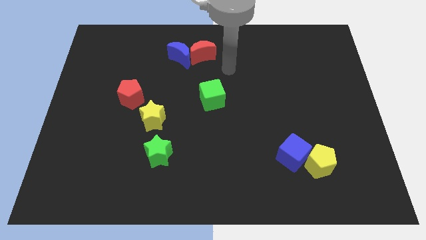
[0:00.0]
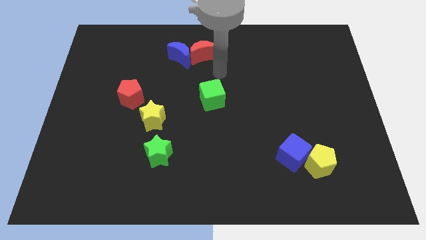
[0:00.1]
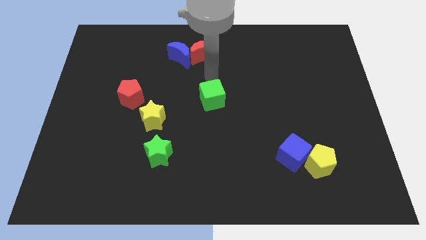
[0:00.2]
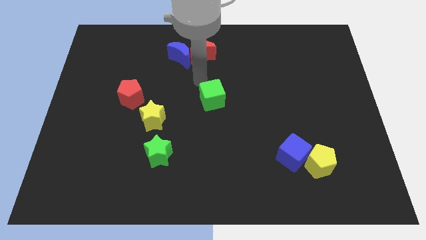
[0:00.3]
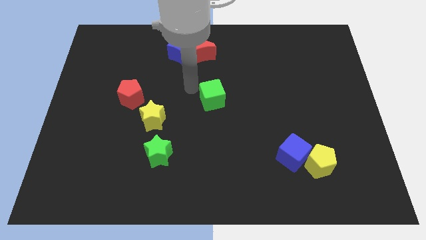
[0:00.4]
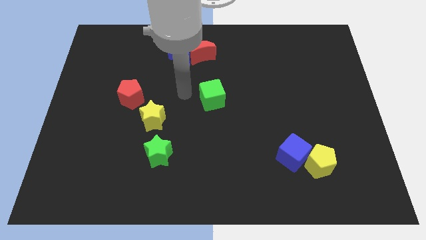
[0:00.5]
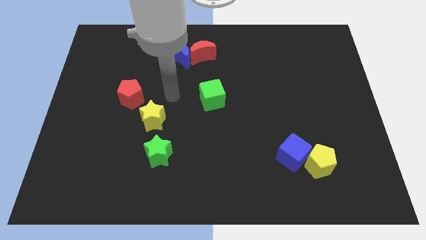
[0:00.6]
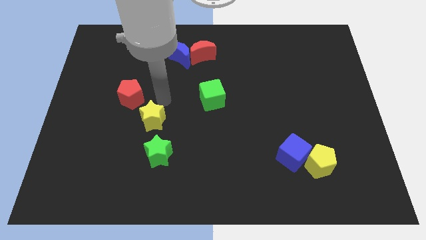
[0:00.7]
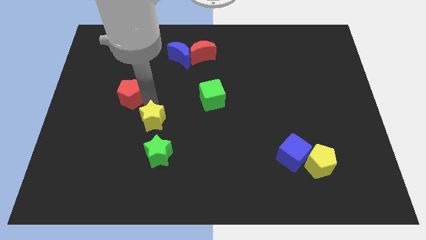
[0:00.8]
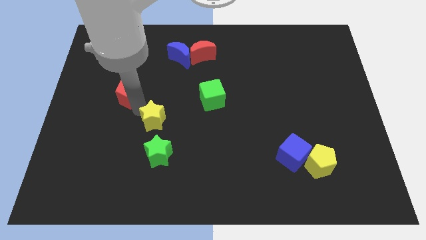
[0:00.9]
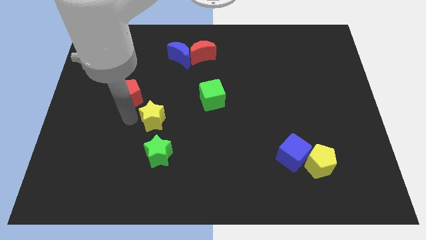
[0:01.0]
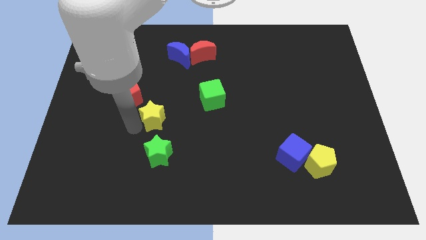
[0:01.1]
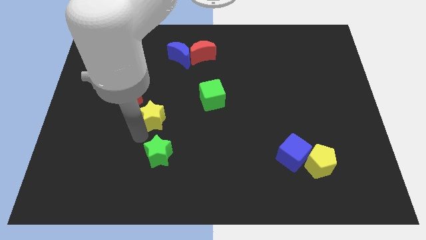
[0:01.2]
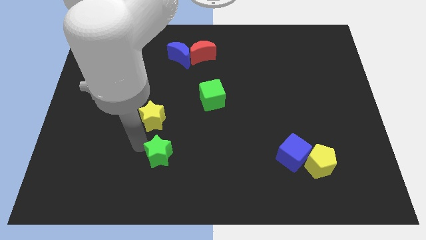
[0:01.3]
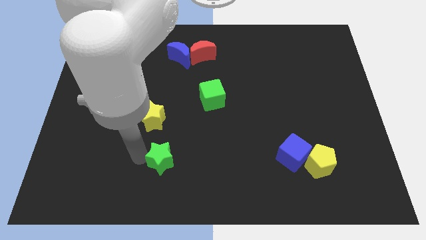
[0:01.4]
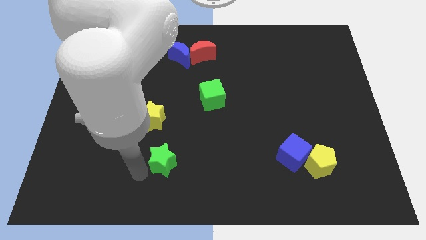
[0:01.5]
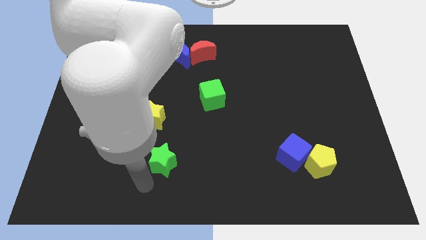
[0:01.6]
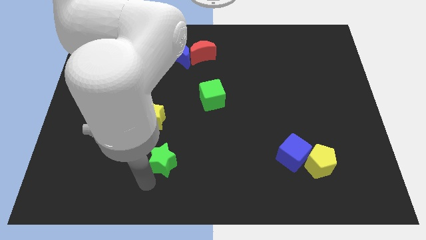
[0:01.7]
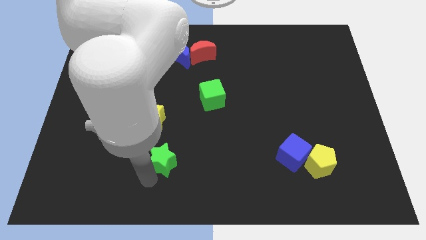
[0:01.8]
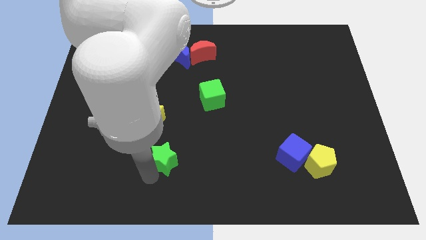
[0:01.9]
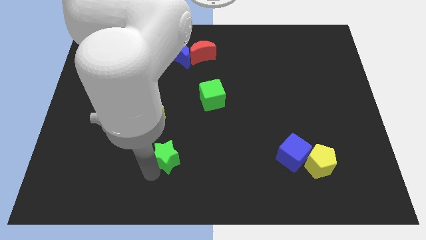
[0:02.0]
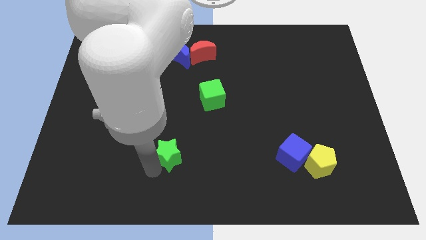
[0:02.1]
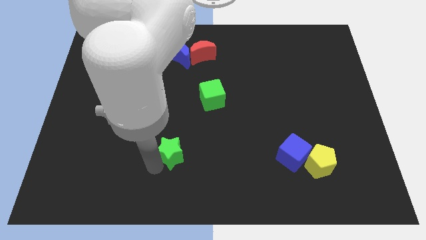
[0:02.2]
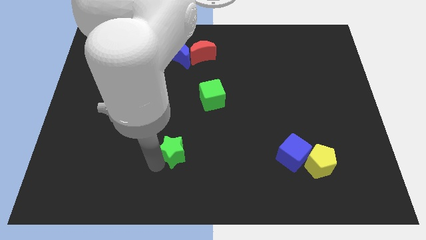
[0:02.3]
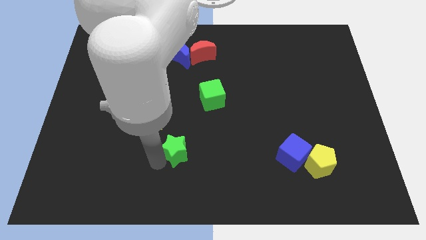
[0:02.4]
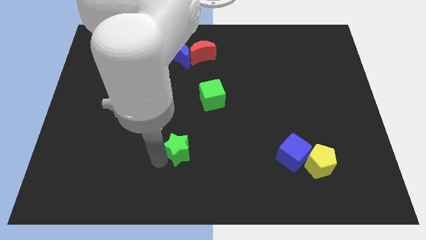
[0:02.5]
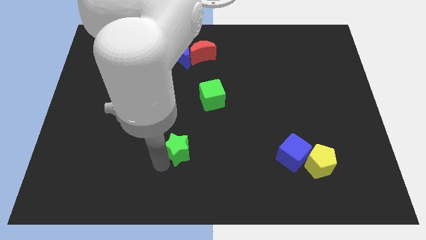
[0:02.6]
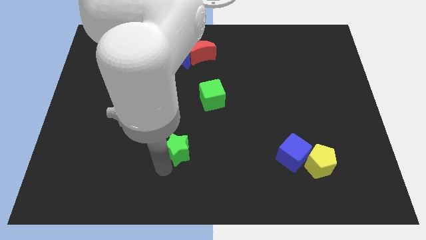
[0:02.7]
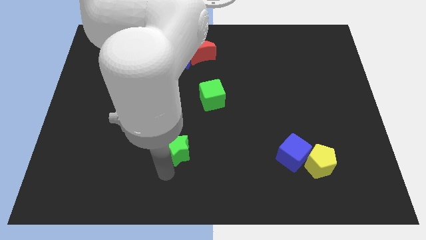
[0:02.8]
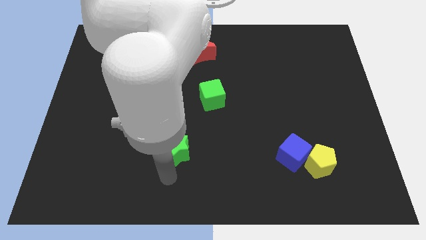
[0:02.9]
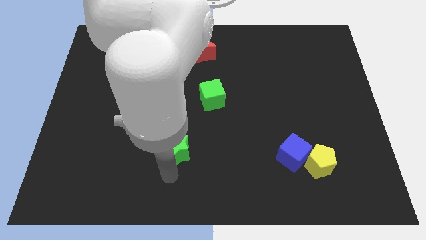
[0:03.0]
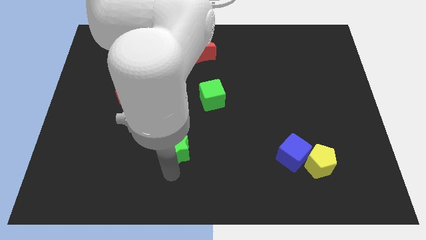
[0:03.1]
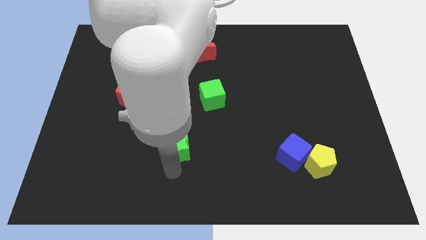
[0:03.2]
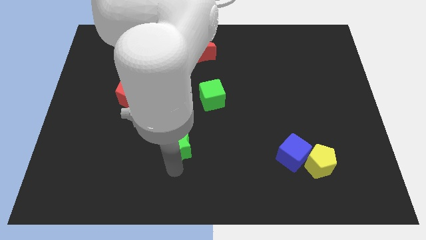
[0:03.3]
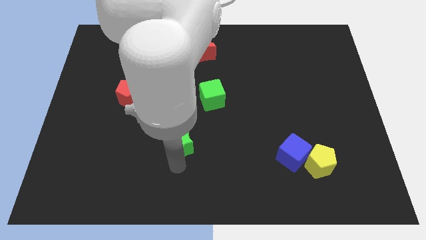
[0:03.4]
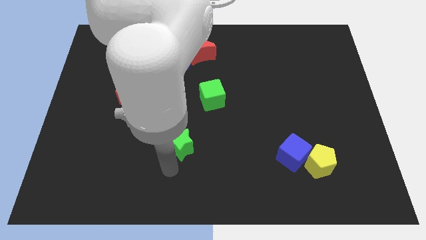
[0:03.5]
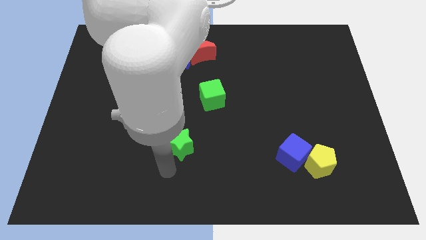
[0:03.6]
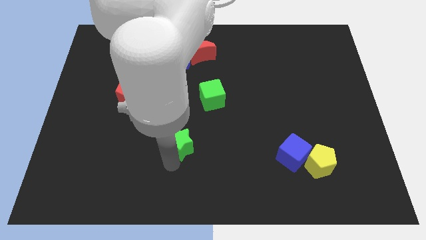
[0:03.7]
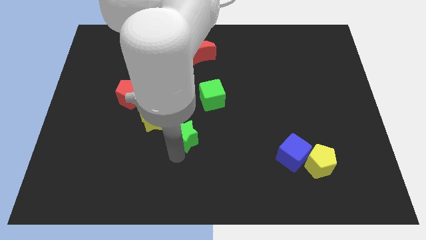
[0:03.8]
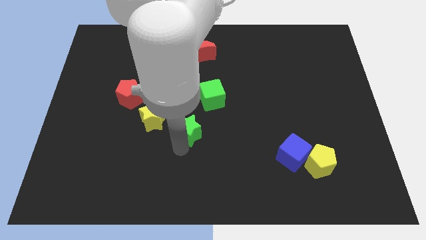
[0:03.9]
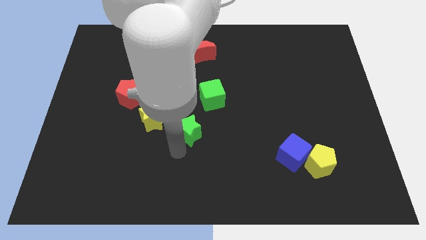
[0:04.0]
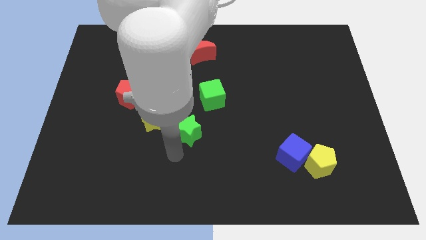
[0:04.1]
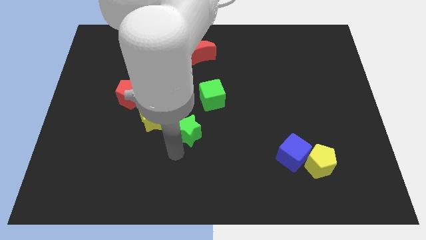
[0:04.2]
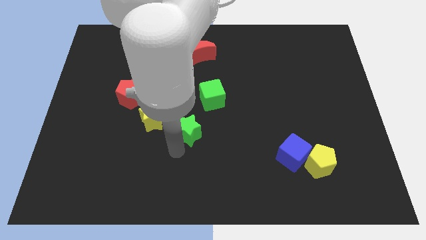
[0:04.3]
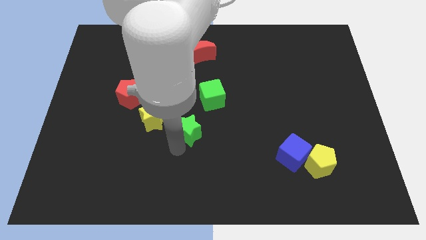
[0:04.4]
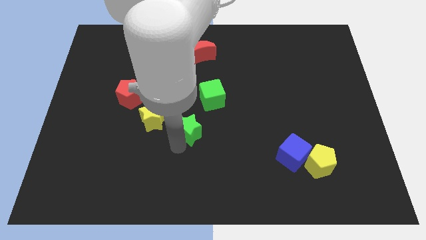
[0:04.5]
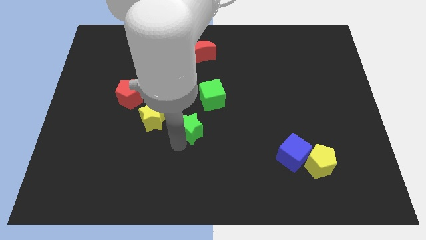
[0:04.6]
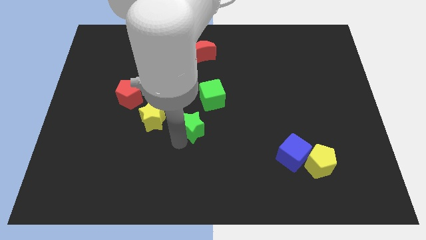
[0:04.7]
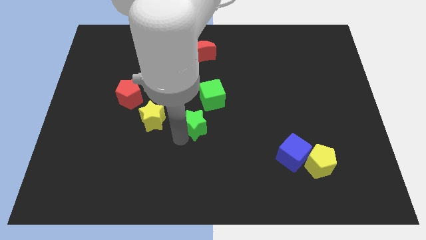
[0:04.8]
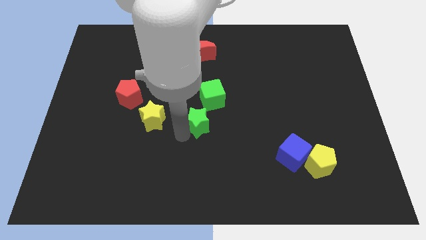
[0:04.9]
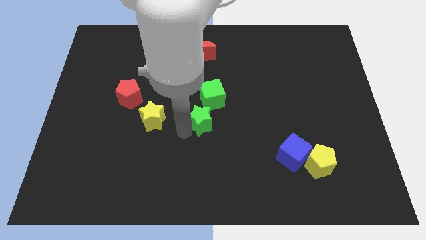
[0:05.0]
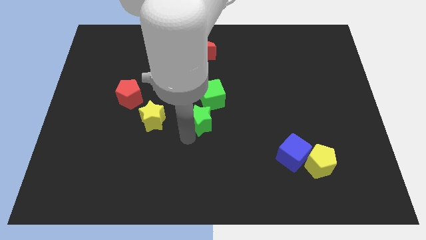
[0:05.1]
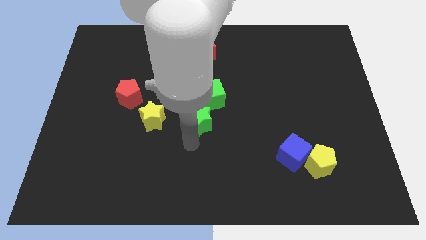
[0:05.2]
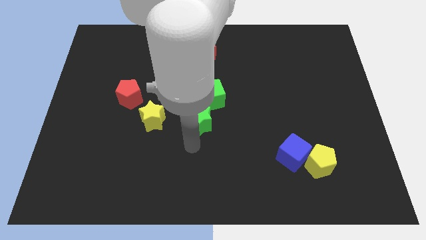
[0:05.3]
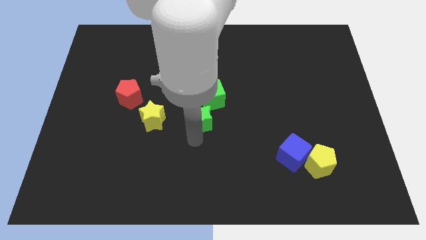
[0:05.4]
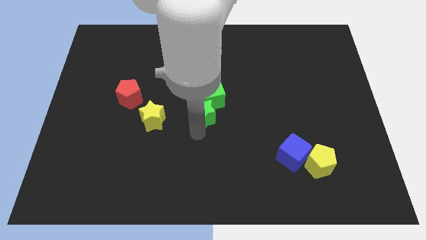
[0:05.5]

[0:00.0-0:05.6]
slide the green star close to the green cube

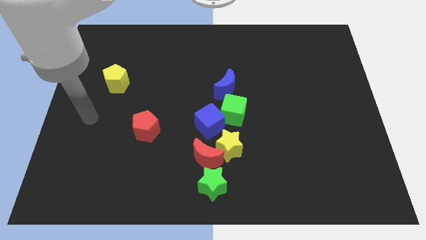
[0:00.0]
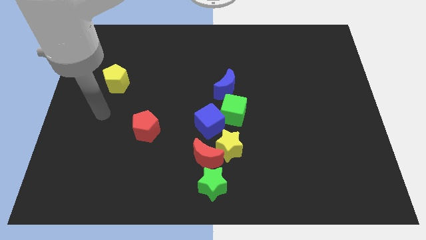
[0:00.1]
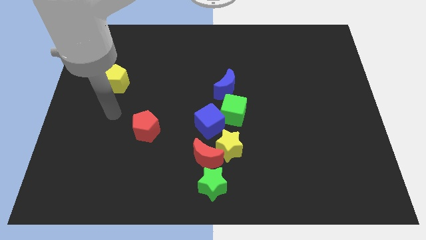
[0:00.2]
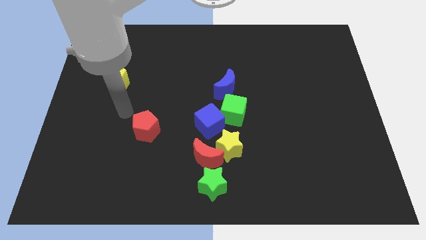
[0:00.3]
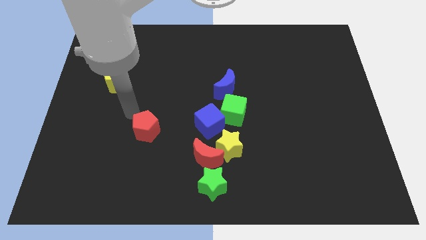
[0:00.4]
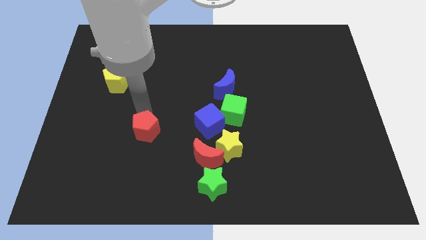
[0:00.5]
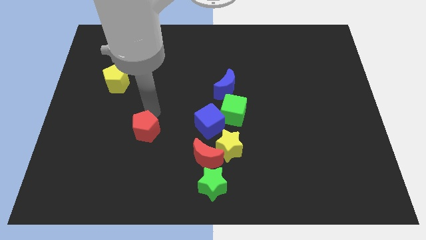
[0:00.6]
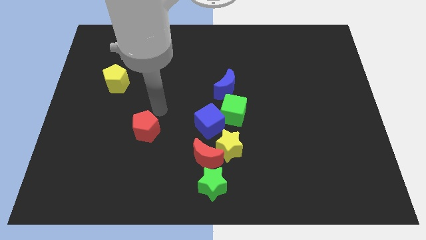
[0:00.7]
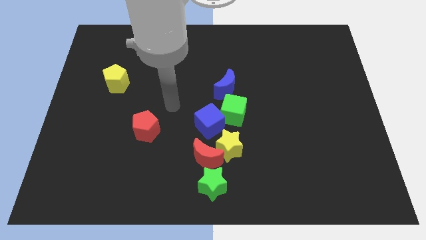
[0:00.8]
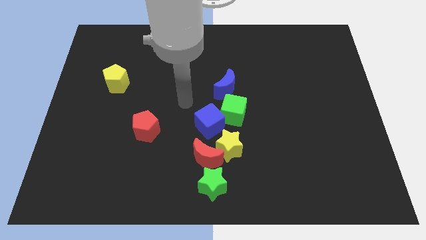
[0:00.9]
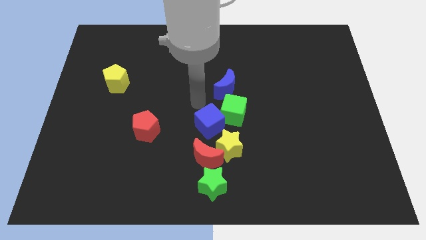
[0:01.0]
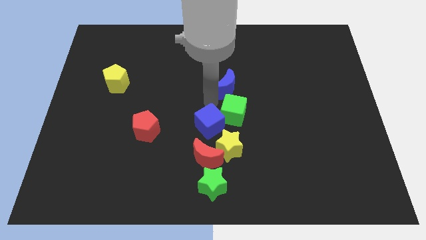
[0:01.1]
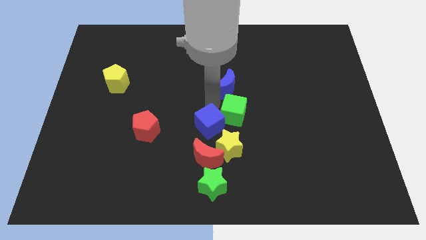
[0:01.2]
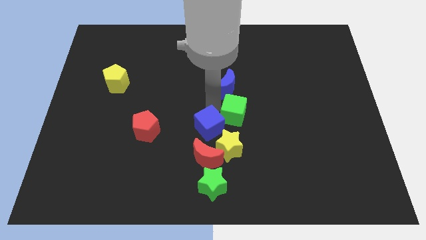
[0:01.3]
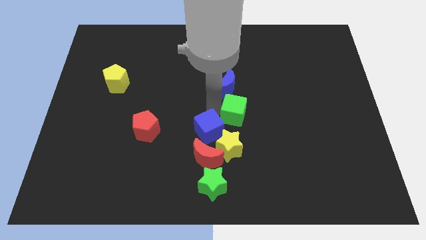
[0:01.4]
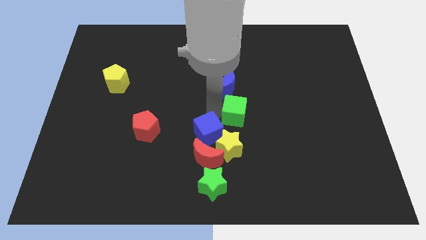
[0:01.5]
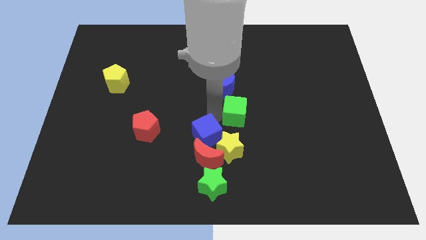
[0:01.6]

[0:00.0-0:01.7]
move the blue cube to the red moon

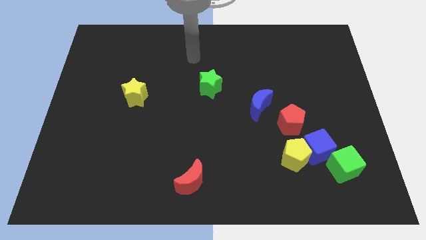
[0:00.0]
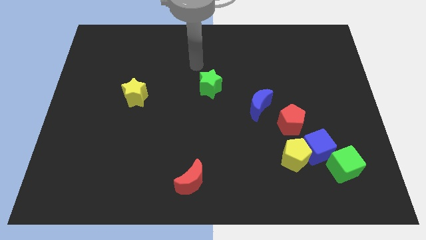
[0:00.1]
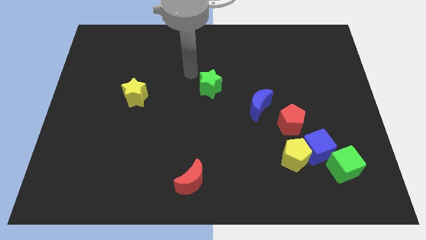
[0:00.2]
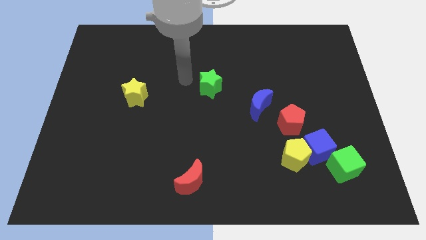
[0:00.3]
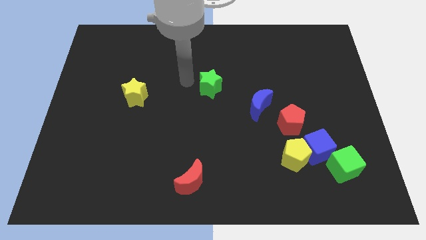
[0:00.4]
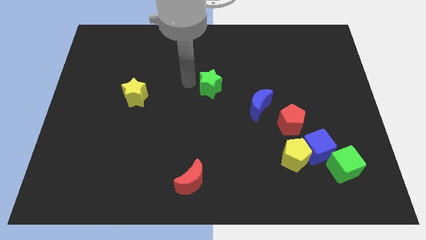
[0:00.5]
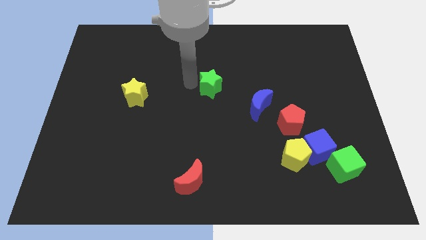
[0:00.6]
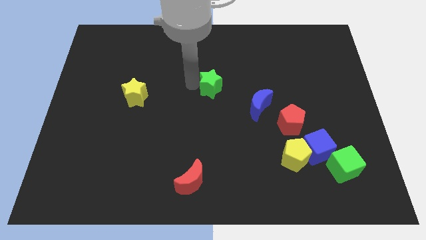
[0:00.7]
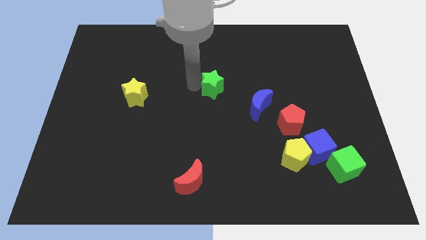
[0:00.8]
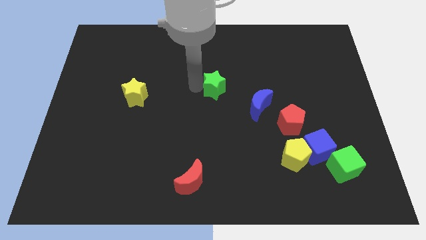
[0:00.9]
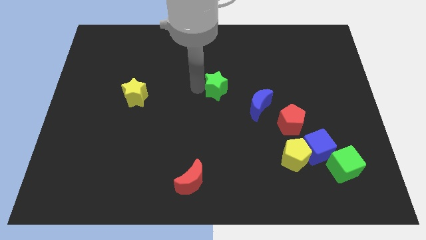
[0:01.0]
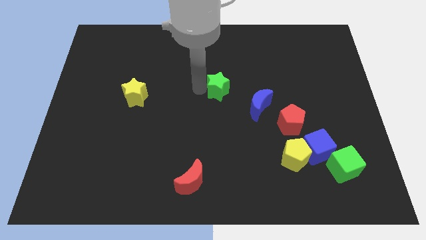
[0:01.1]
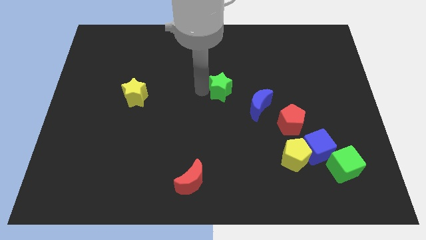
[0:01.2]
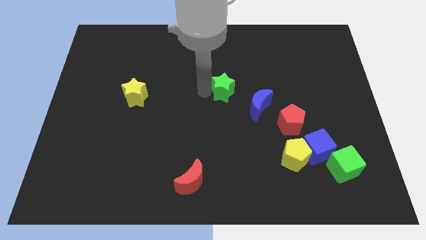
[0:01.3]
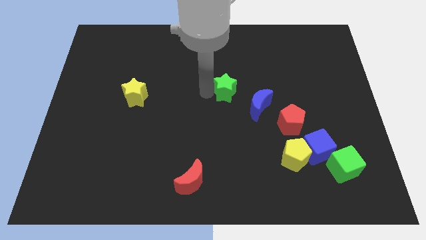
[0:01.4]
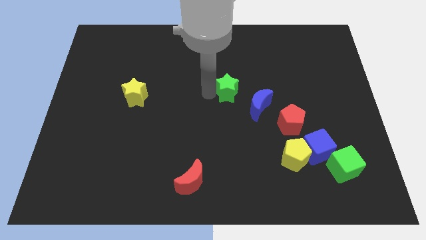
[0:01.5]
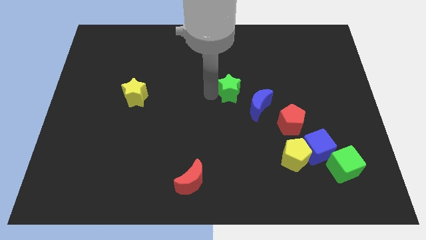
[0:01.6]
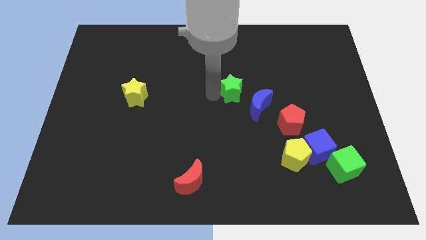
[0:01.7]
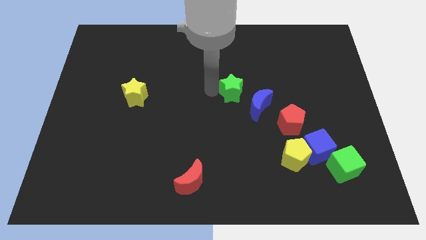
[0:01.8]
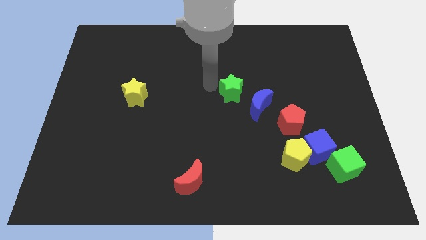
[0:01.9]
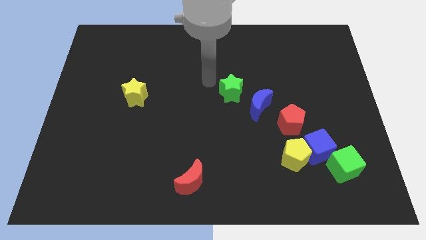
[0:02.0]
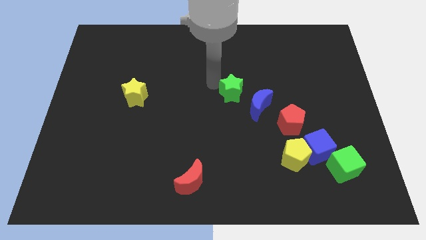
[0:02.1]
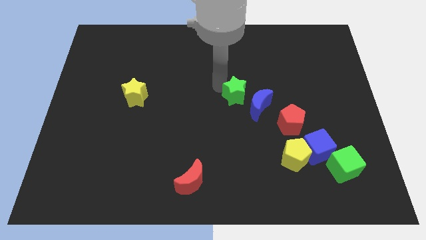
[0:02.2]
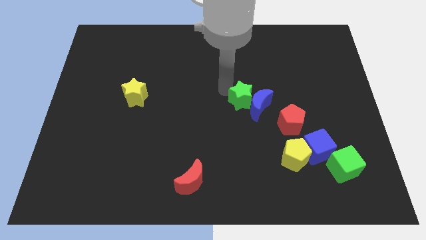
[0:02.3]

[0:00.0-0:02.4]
push the green star to the blue moon
